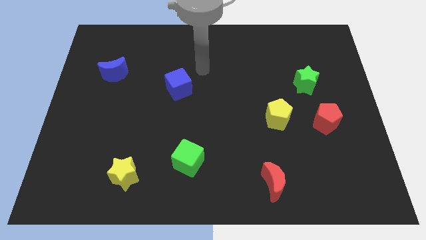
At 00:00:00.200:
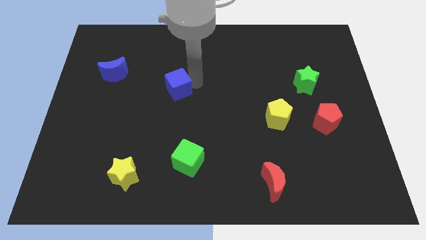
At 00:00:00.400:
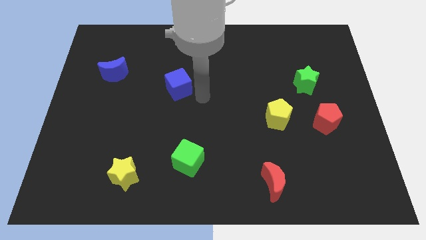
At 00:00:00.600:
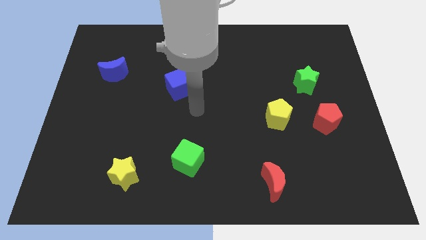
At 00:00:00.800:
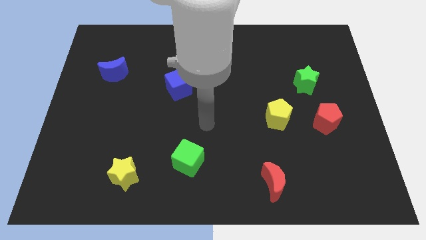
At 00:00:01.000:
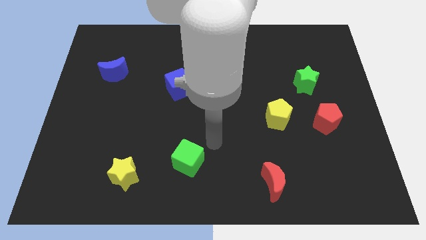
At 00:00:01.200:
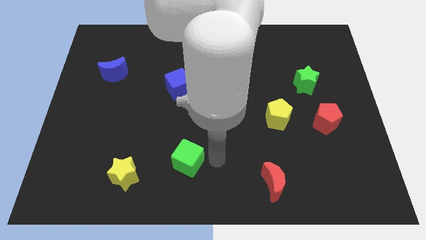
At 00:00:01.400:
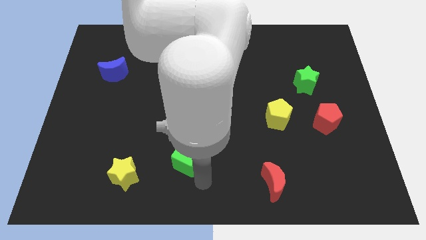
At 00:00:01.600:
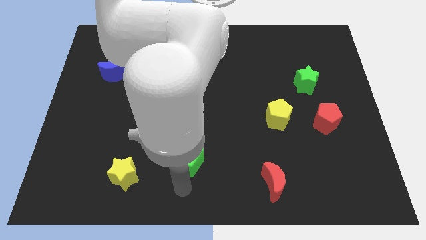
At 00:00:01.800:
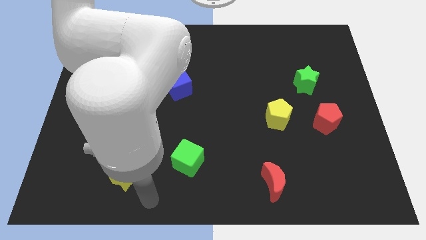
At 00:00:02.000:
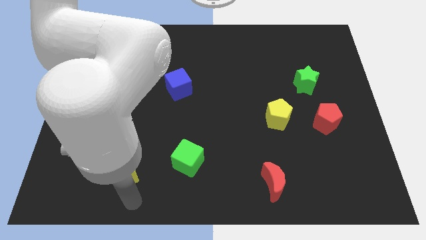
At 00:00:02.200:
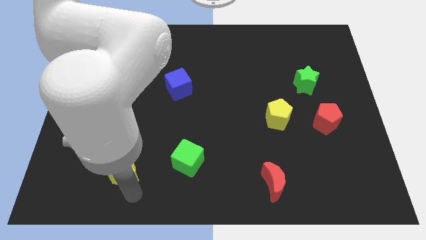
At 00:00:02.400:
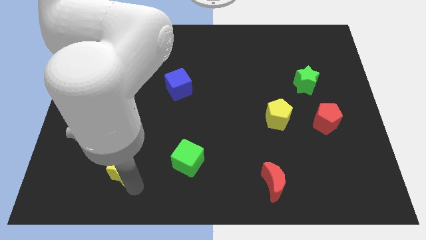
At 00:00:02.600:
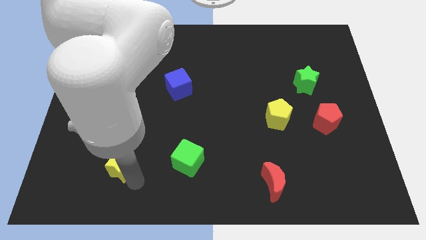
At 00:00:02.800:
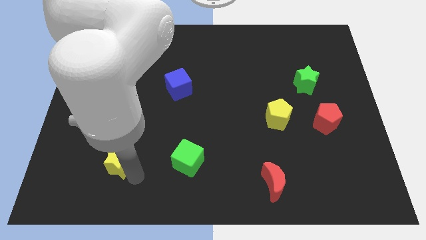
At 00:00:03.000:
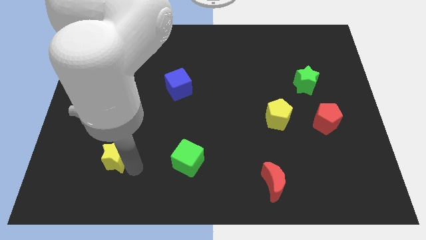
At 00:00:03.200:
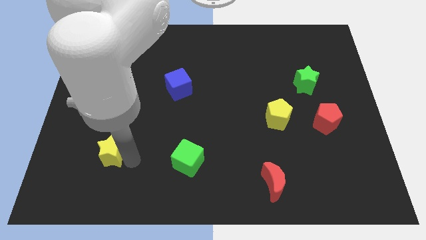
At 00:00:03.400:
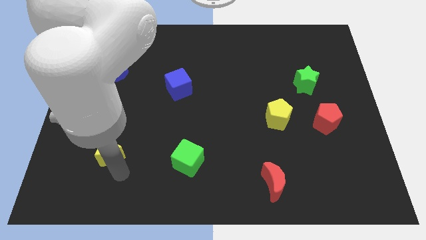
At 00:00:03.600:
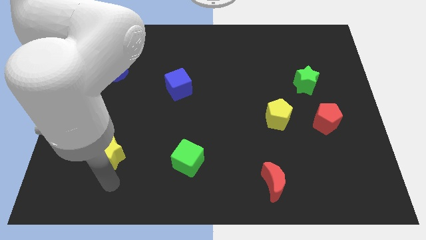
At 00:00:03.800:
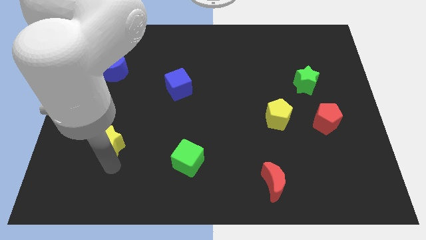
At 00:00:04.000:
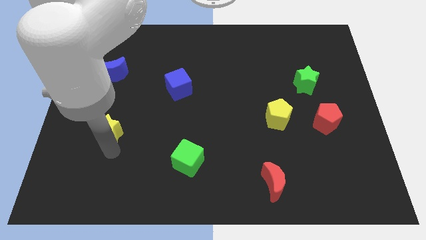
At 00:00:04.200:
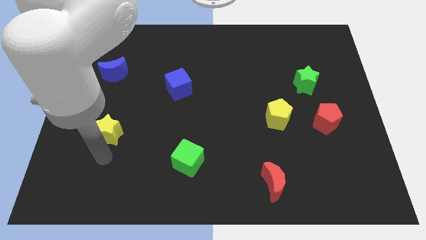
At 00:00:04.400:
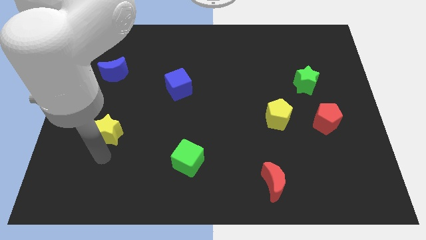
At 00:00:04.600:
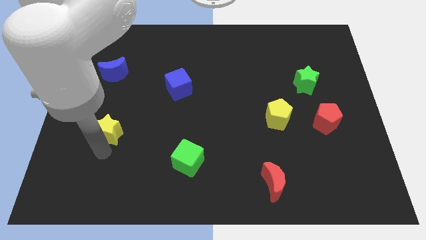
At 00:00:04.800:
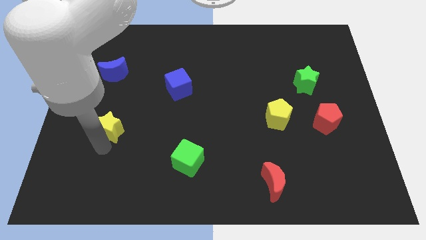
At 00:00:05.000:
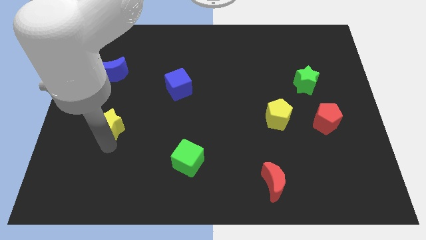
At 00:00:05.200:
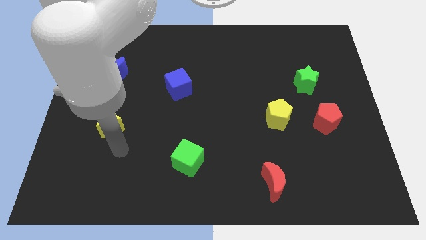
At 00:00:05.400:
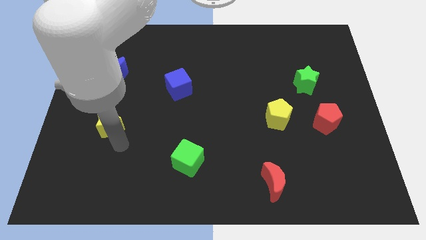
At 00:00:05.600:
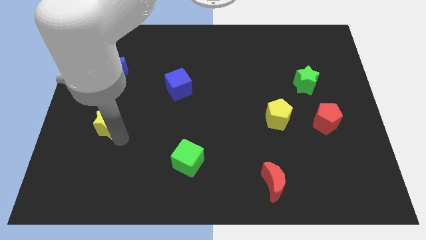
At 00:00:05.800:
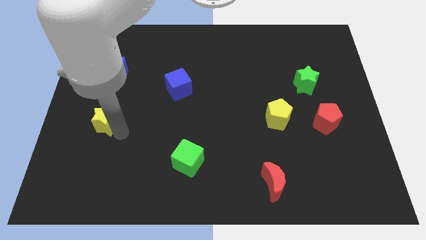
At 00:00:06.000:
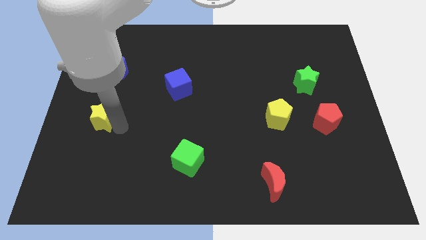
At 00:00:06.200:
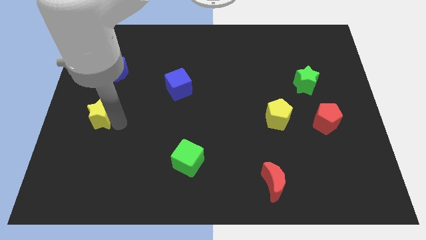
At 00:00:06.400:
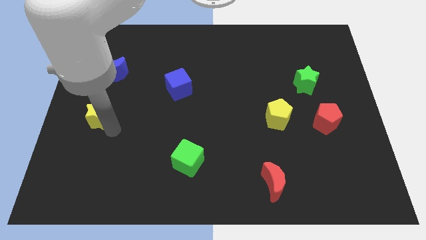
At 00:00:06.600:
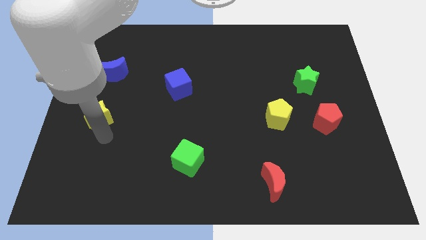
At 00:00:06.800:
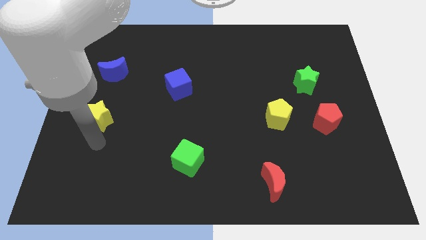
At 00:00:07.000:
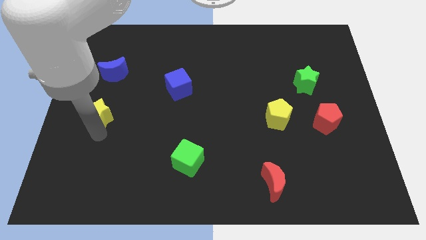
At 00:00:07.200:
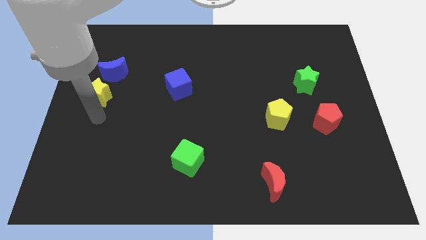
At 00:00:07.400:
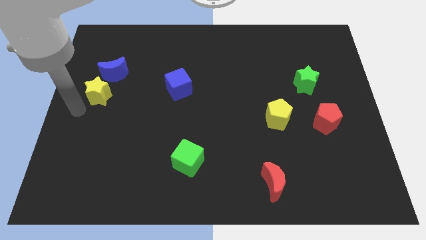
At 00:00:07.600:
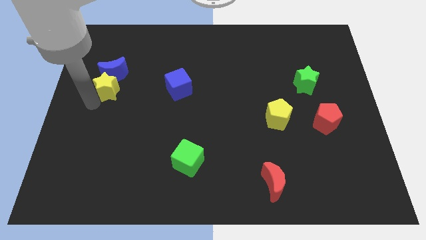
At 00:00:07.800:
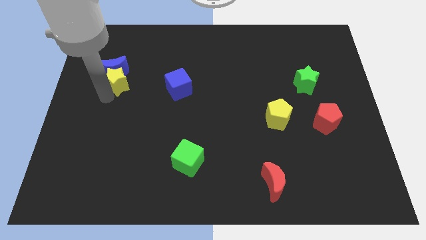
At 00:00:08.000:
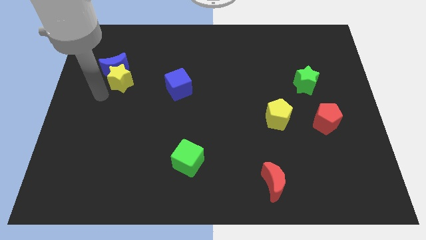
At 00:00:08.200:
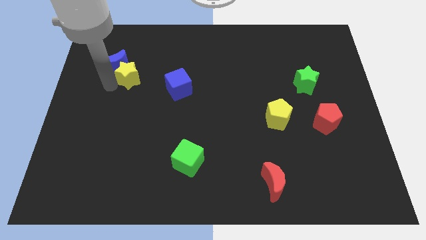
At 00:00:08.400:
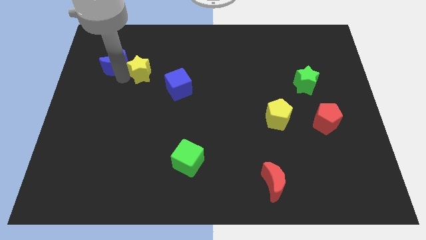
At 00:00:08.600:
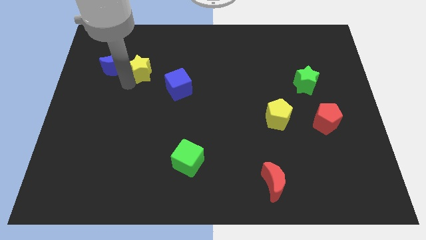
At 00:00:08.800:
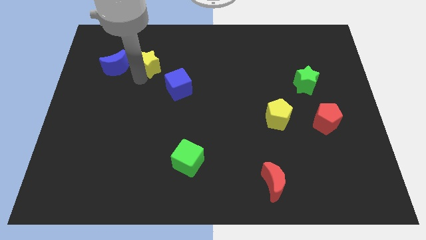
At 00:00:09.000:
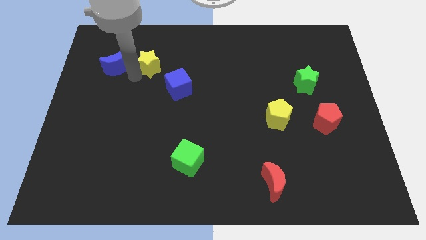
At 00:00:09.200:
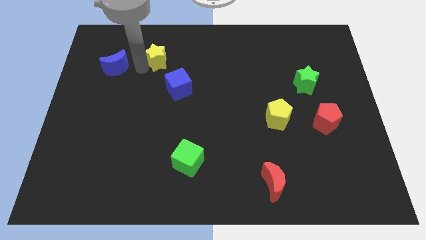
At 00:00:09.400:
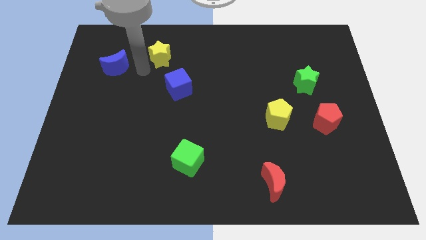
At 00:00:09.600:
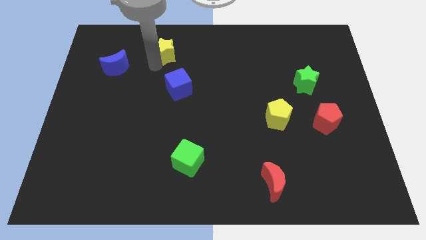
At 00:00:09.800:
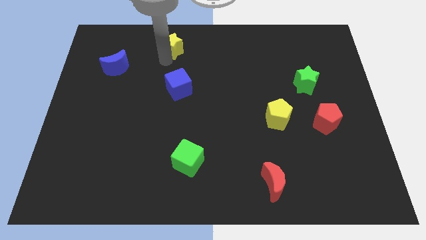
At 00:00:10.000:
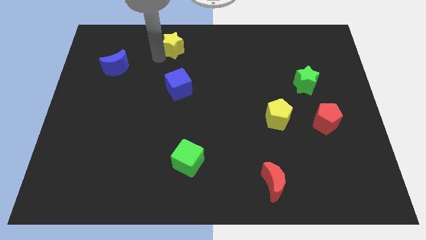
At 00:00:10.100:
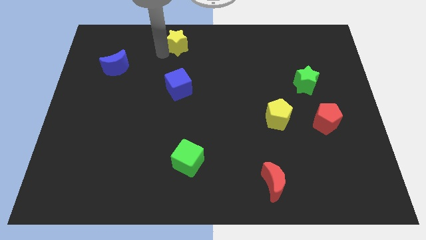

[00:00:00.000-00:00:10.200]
push the yellow star to the towards your base

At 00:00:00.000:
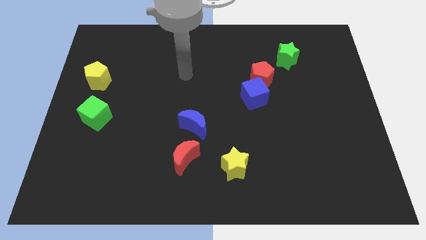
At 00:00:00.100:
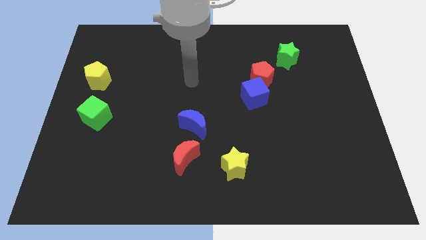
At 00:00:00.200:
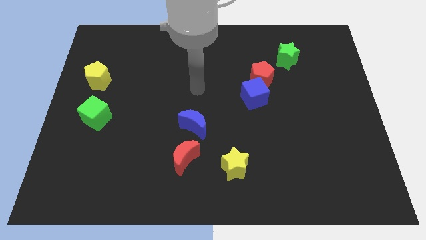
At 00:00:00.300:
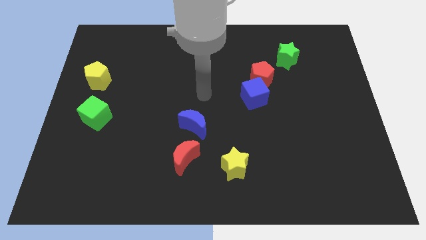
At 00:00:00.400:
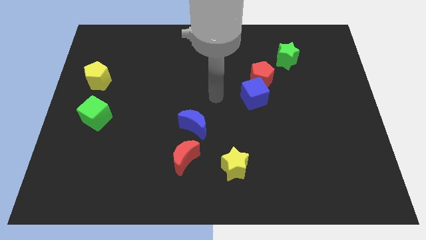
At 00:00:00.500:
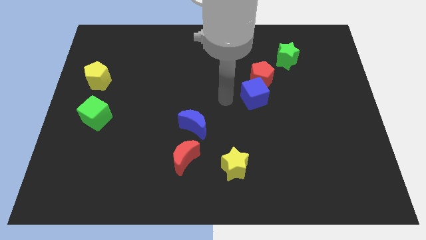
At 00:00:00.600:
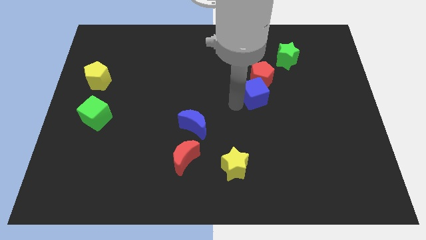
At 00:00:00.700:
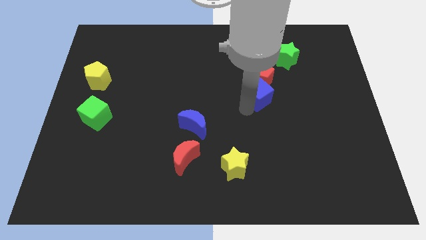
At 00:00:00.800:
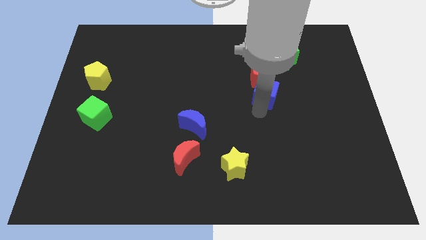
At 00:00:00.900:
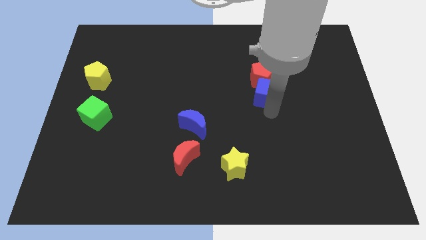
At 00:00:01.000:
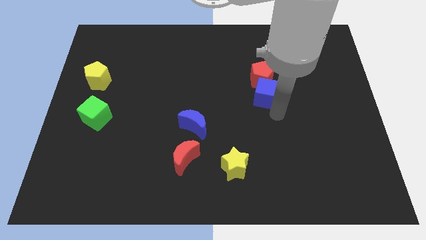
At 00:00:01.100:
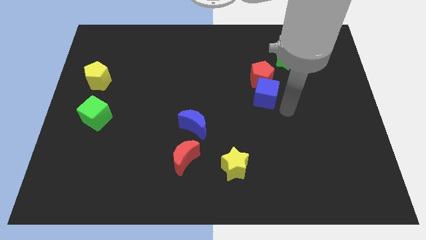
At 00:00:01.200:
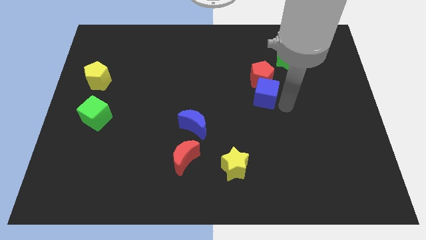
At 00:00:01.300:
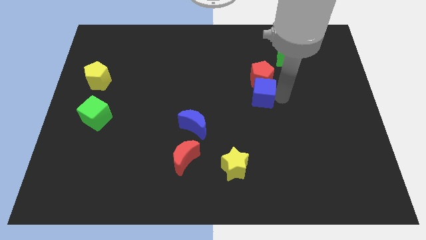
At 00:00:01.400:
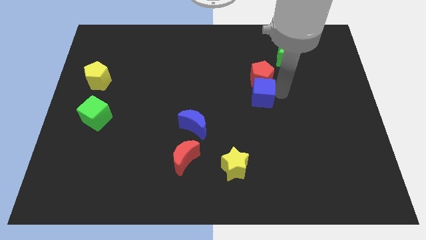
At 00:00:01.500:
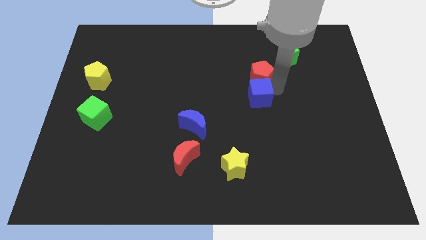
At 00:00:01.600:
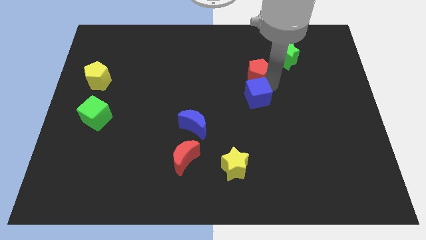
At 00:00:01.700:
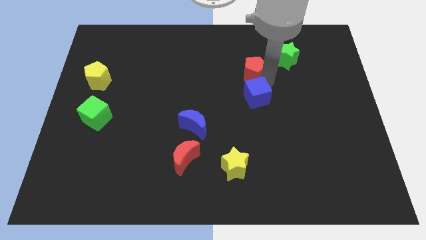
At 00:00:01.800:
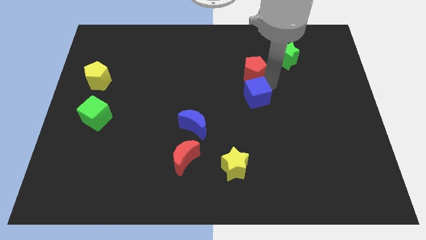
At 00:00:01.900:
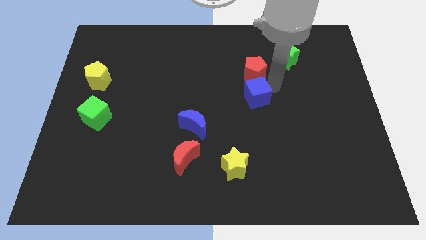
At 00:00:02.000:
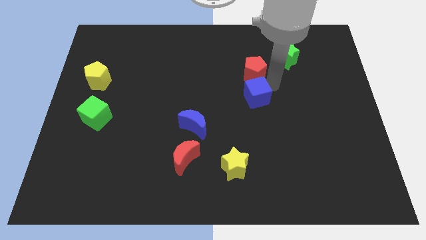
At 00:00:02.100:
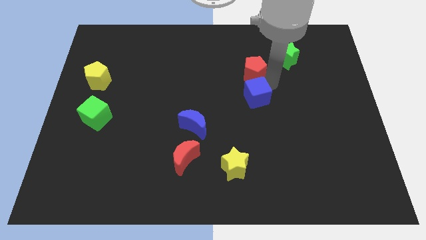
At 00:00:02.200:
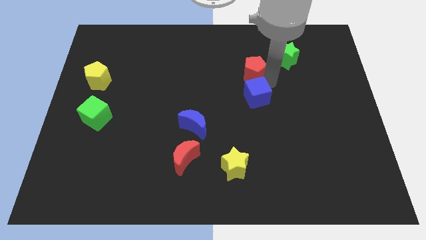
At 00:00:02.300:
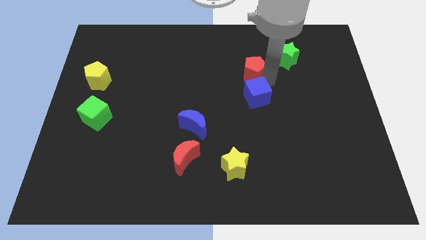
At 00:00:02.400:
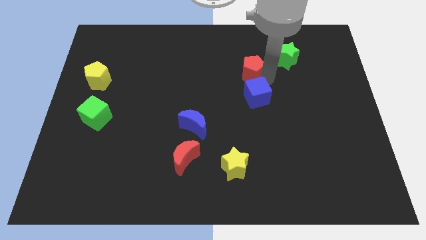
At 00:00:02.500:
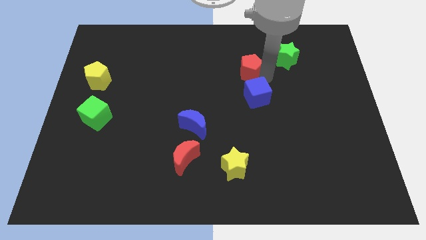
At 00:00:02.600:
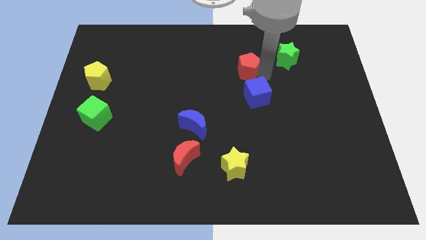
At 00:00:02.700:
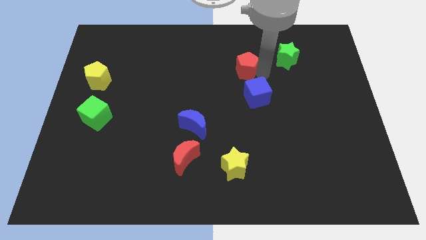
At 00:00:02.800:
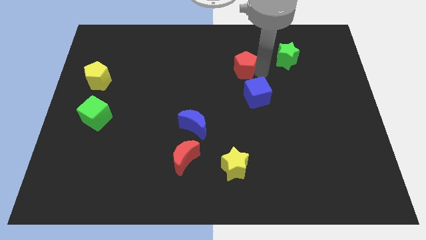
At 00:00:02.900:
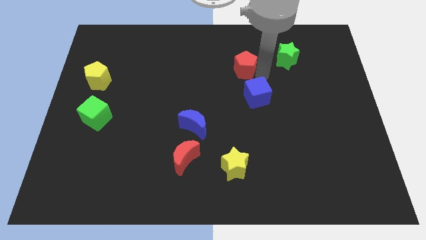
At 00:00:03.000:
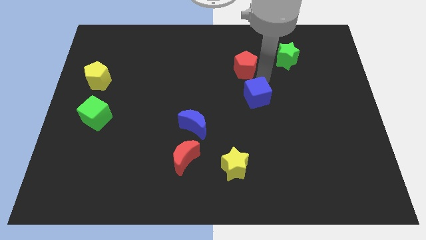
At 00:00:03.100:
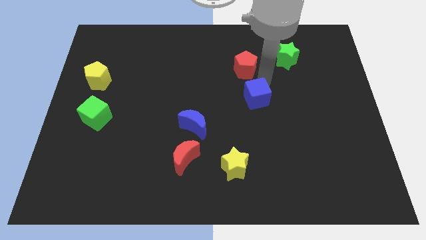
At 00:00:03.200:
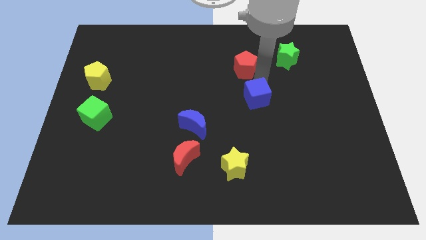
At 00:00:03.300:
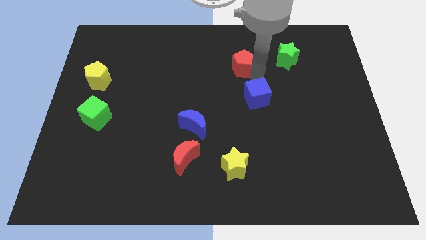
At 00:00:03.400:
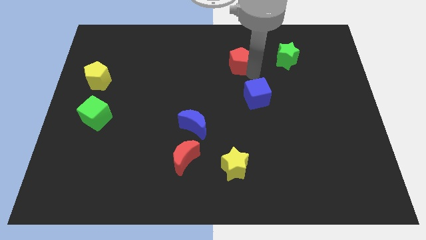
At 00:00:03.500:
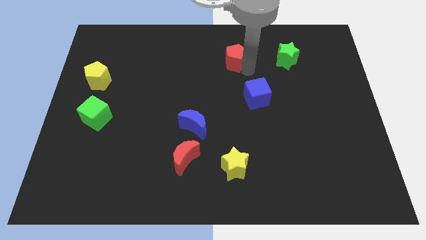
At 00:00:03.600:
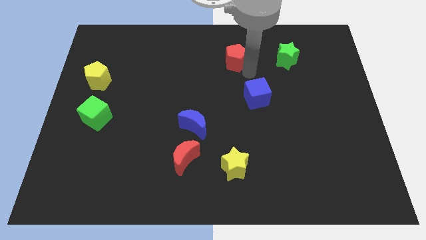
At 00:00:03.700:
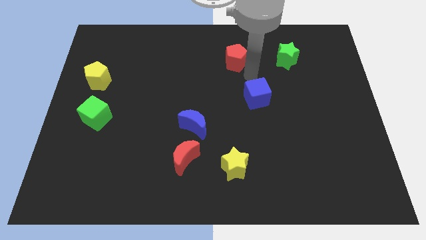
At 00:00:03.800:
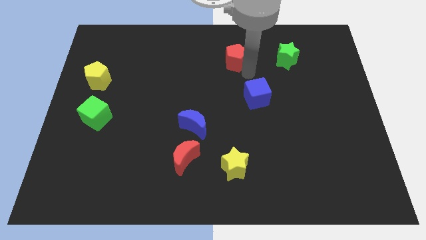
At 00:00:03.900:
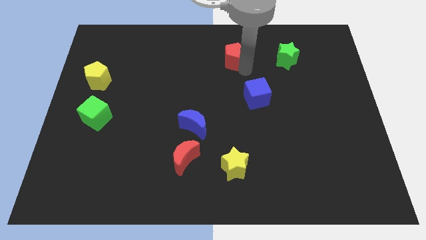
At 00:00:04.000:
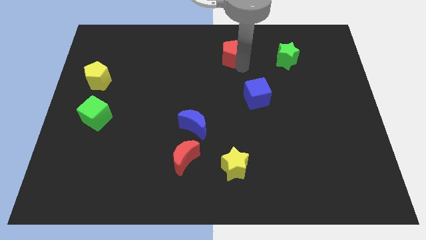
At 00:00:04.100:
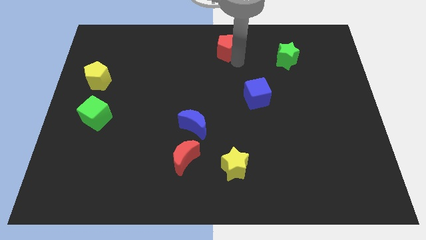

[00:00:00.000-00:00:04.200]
put the red pentagon to the towards your base
